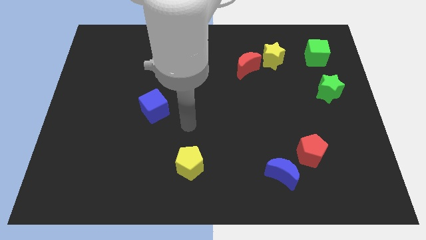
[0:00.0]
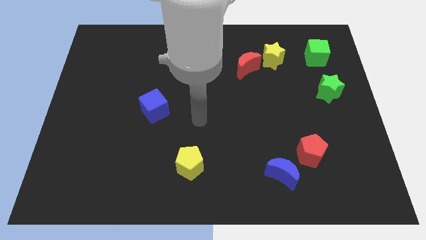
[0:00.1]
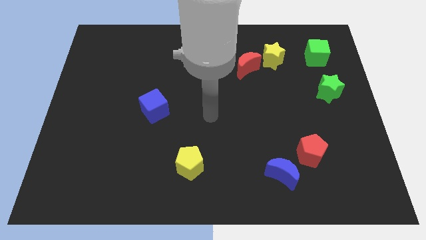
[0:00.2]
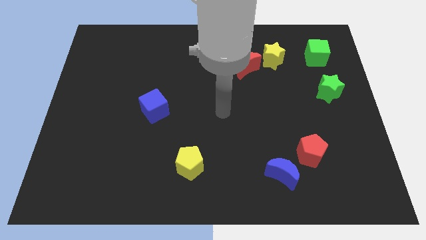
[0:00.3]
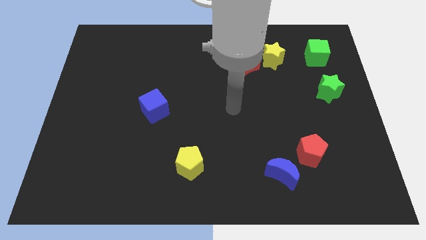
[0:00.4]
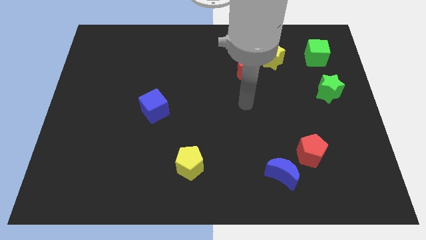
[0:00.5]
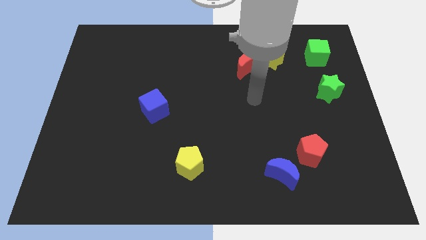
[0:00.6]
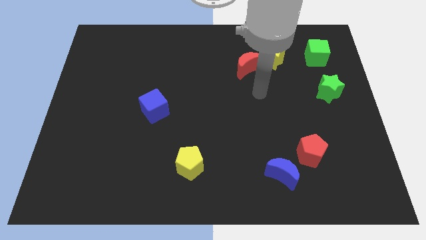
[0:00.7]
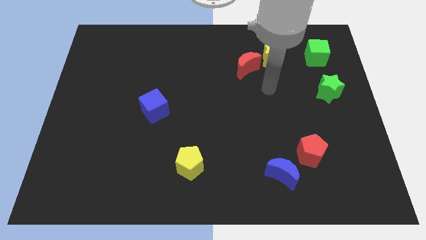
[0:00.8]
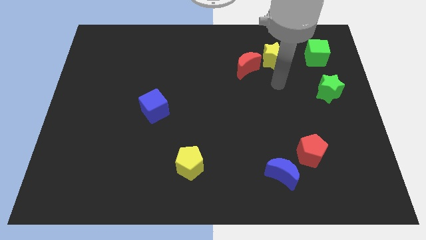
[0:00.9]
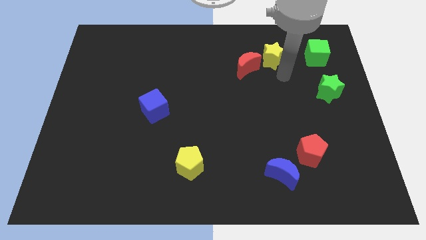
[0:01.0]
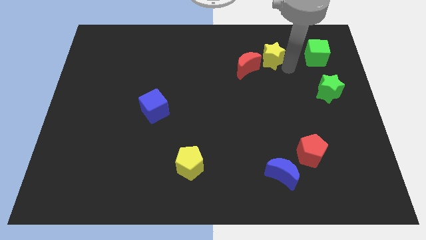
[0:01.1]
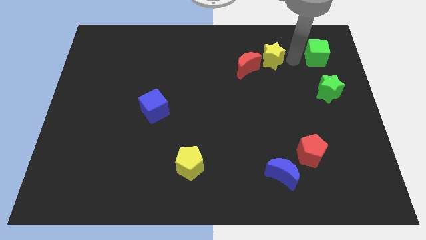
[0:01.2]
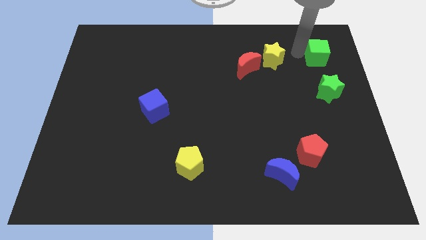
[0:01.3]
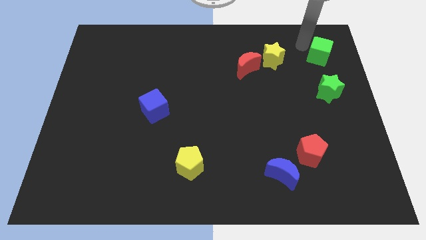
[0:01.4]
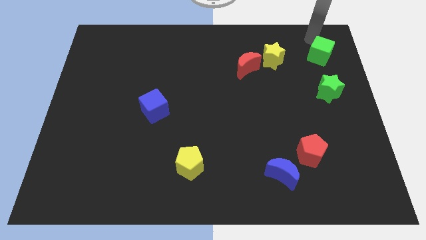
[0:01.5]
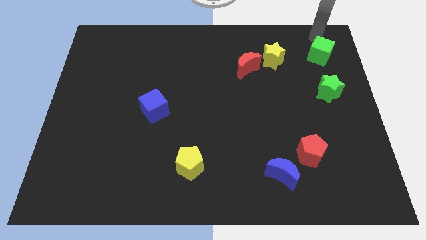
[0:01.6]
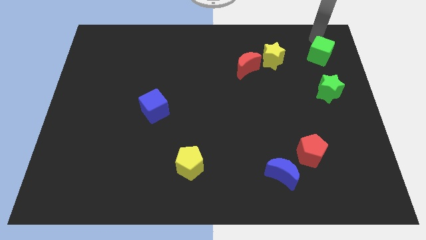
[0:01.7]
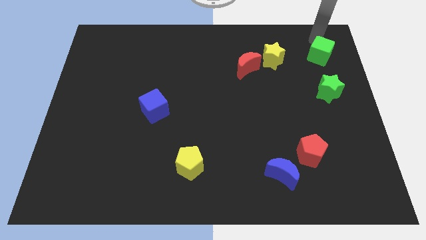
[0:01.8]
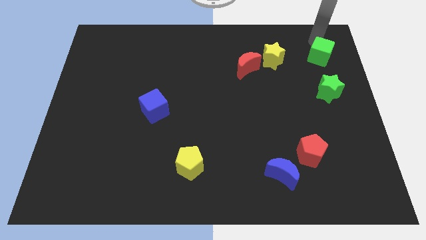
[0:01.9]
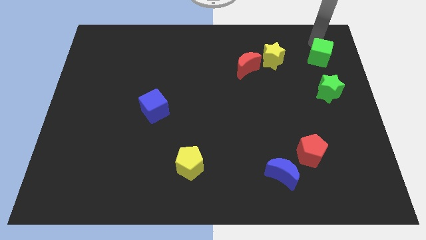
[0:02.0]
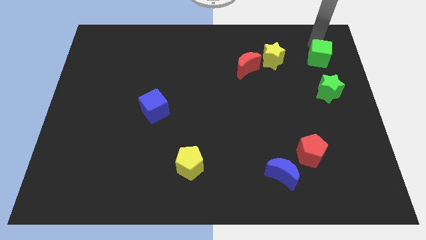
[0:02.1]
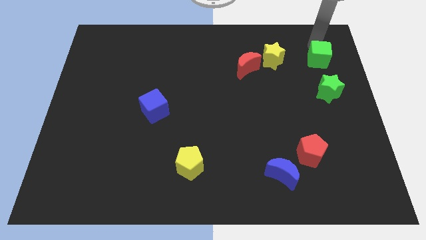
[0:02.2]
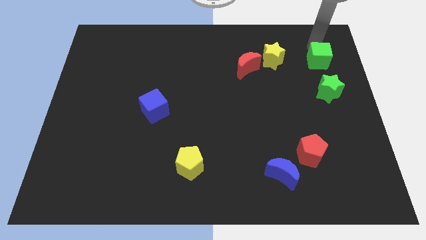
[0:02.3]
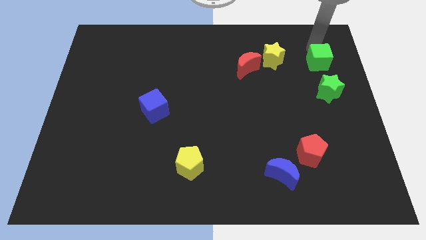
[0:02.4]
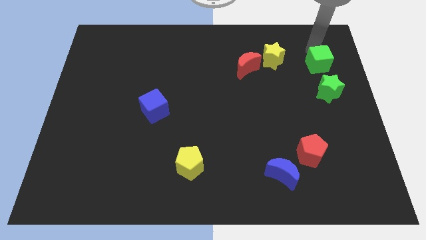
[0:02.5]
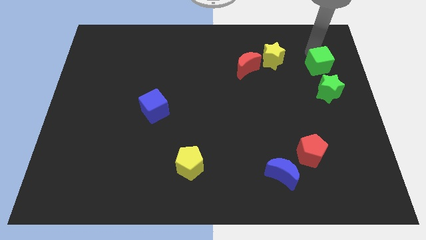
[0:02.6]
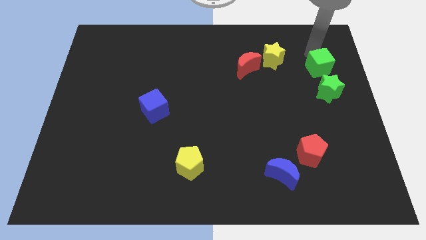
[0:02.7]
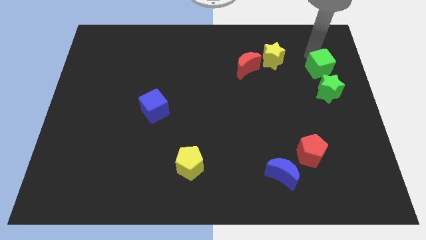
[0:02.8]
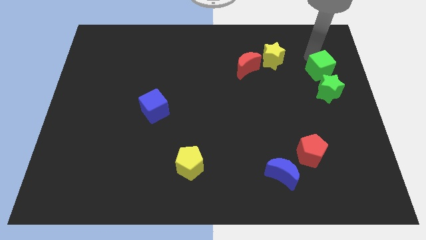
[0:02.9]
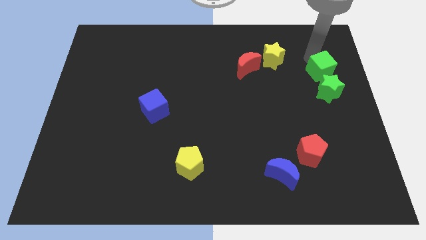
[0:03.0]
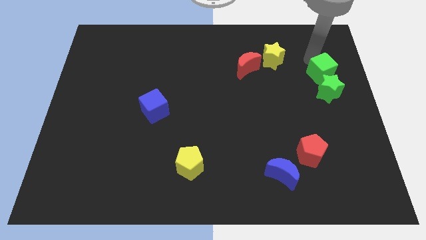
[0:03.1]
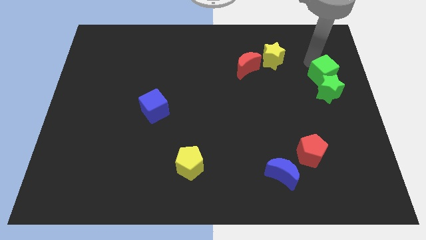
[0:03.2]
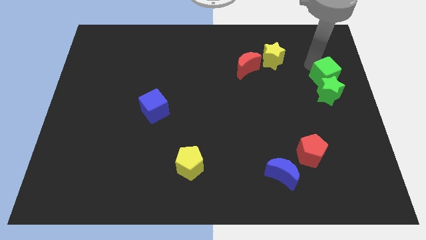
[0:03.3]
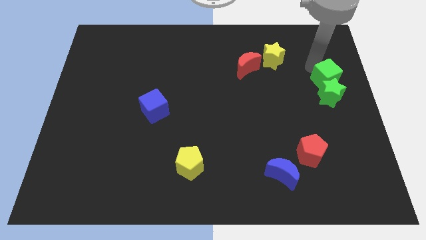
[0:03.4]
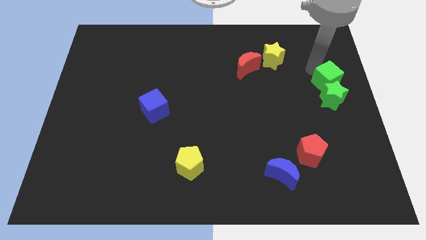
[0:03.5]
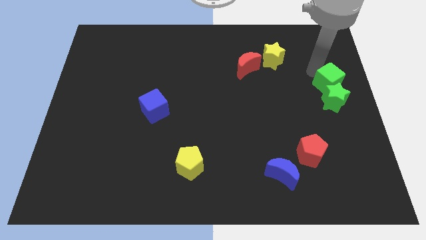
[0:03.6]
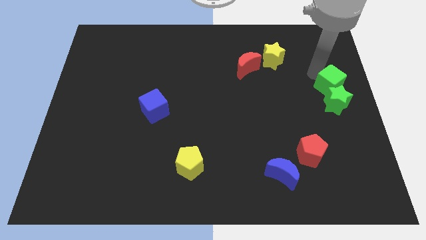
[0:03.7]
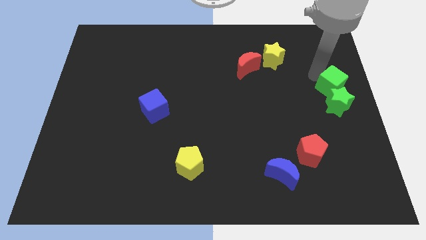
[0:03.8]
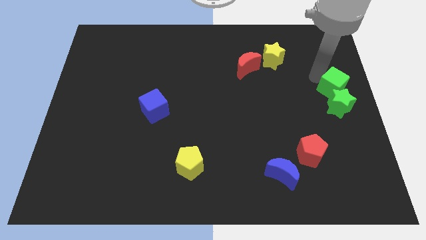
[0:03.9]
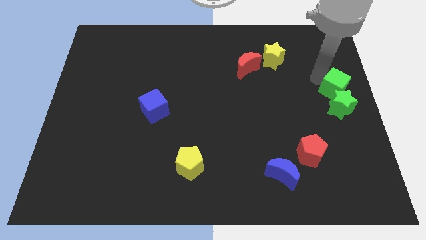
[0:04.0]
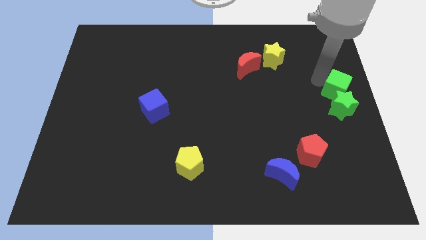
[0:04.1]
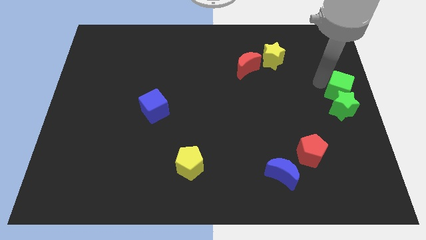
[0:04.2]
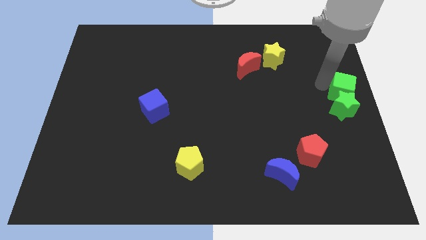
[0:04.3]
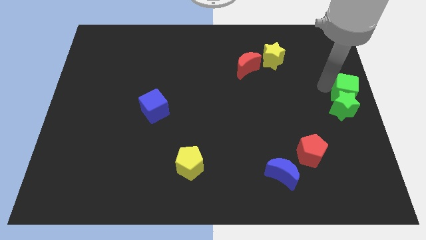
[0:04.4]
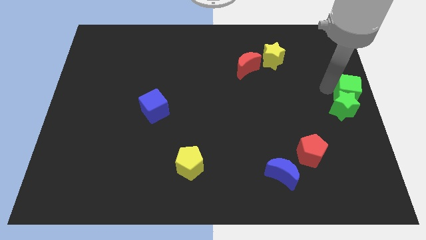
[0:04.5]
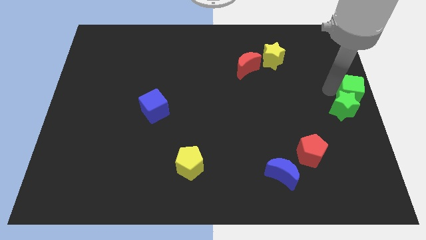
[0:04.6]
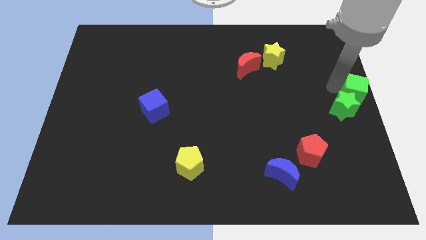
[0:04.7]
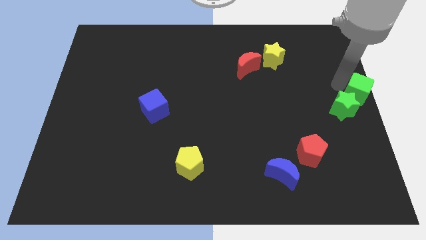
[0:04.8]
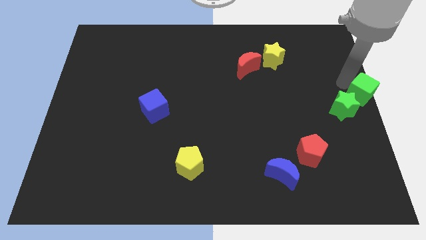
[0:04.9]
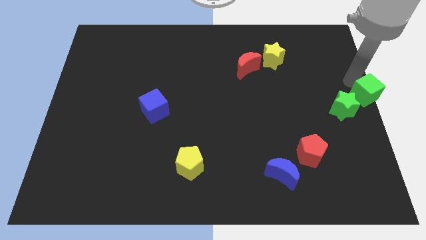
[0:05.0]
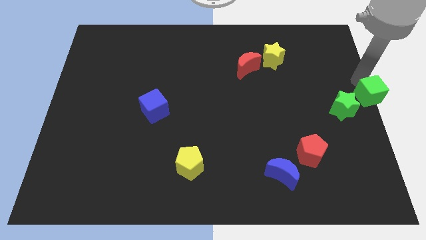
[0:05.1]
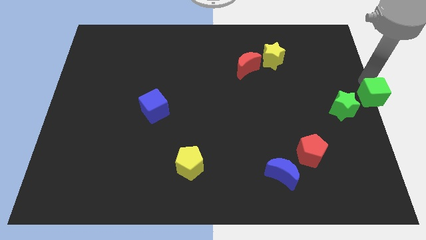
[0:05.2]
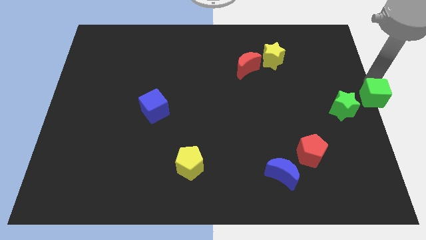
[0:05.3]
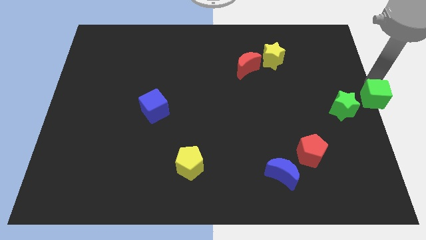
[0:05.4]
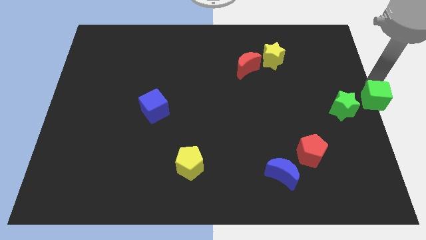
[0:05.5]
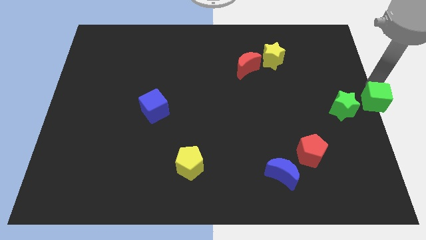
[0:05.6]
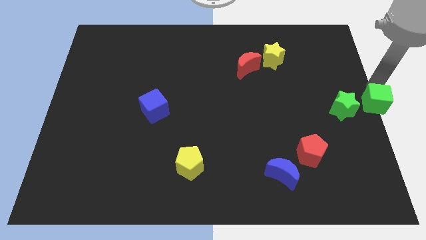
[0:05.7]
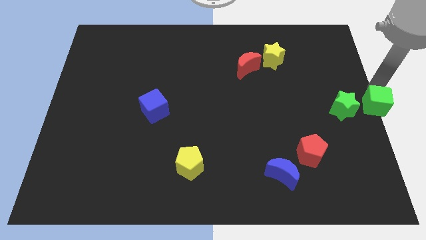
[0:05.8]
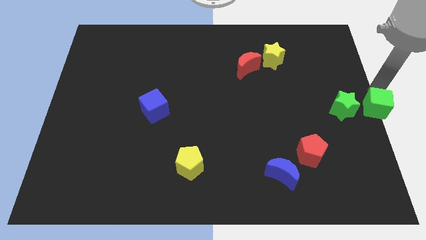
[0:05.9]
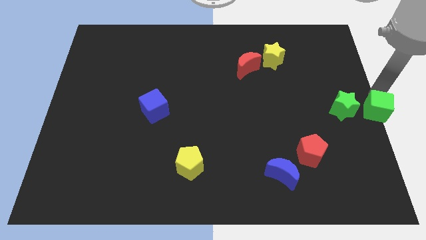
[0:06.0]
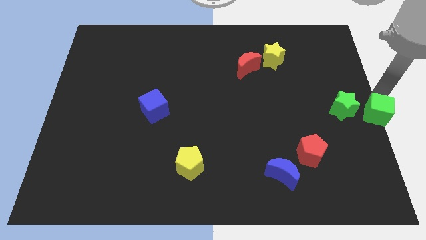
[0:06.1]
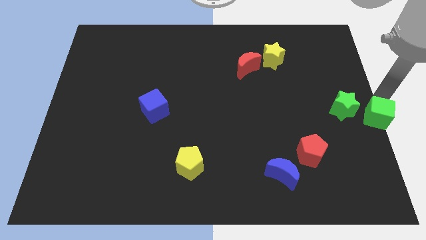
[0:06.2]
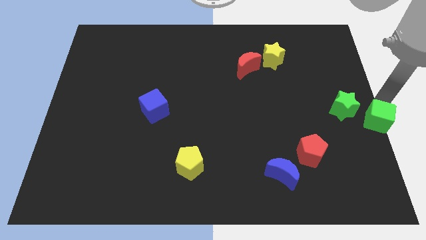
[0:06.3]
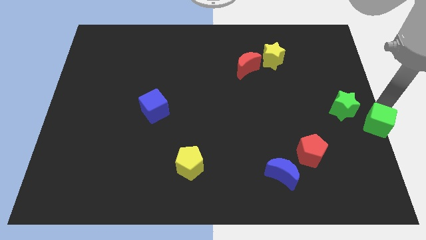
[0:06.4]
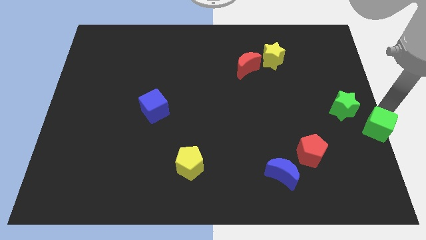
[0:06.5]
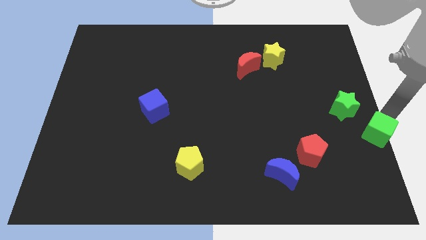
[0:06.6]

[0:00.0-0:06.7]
slide the green cube down

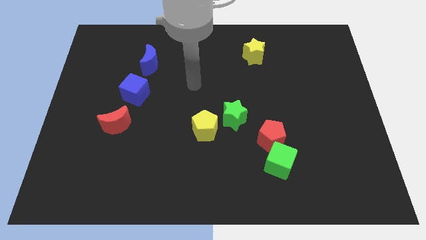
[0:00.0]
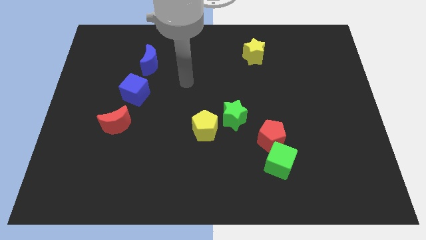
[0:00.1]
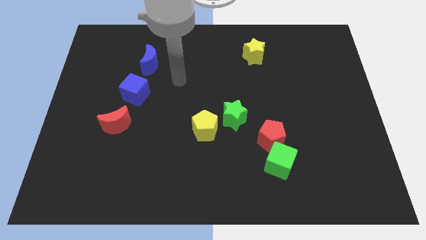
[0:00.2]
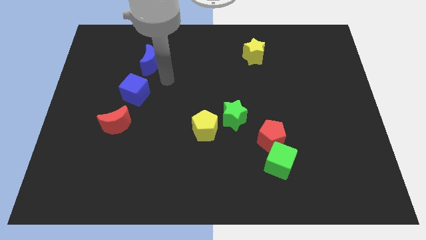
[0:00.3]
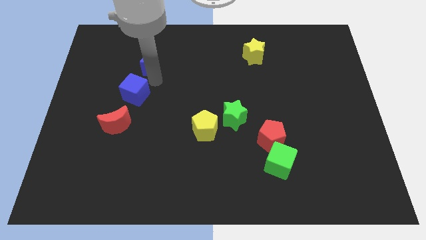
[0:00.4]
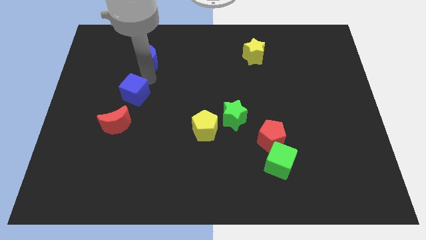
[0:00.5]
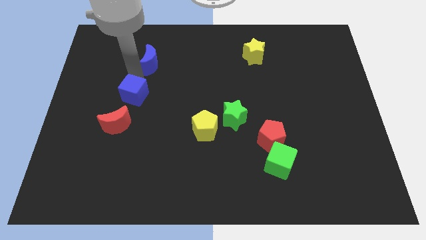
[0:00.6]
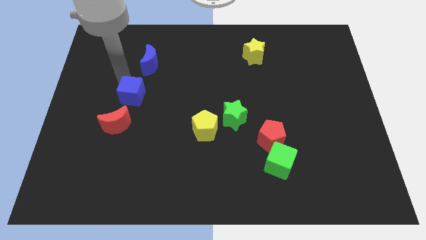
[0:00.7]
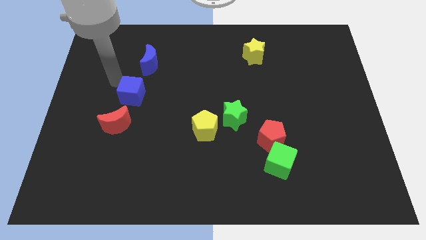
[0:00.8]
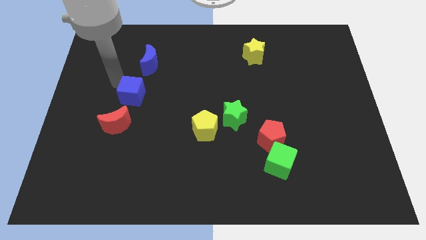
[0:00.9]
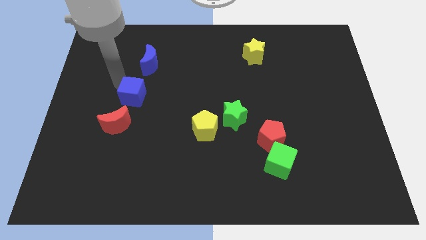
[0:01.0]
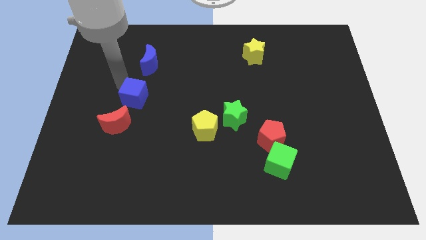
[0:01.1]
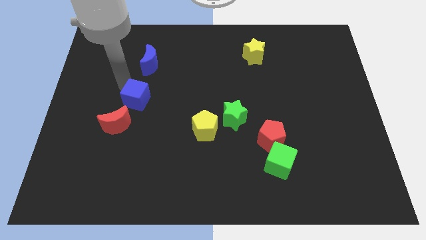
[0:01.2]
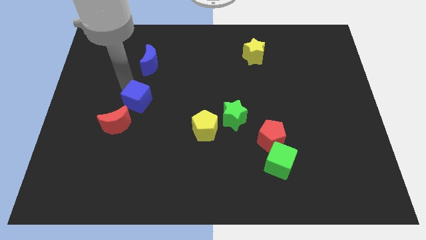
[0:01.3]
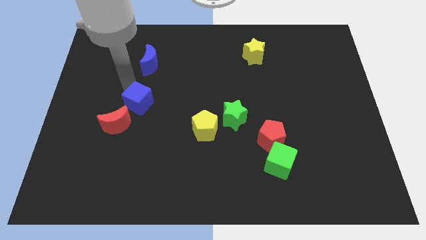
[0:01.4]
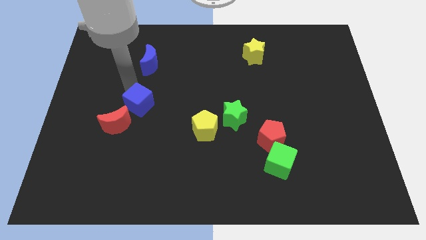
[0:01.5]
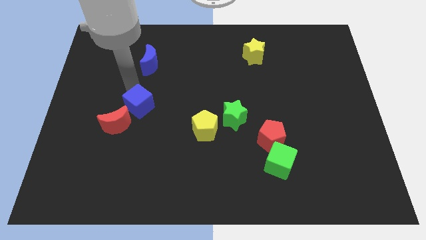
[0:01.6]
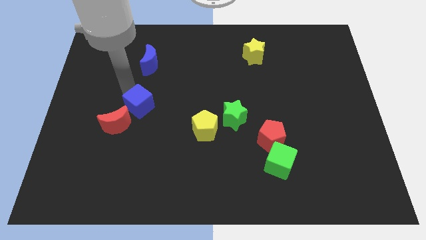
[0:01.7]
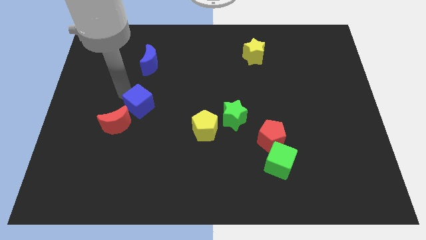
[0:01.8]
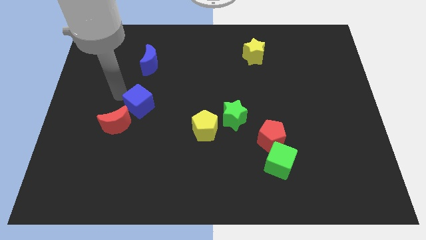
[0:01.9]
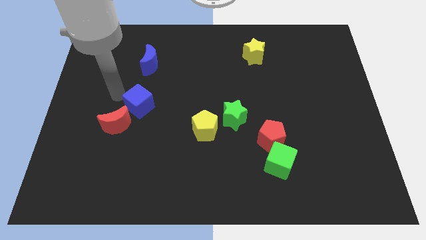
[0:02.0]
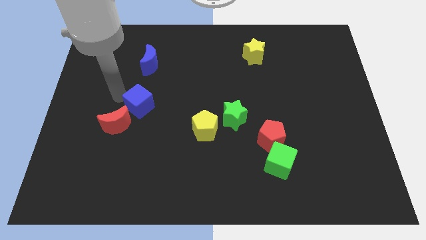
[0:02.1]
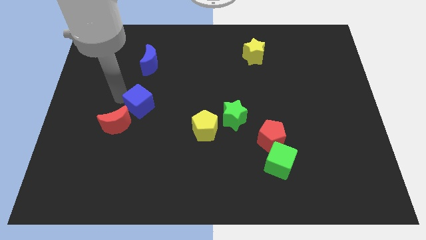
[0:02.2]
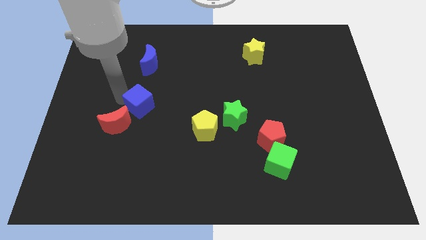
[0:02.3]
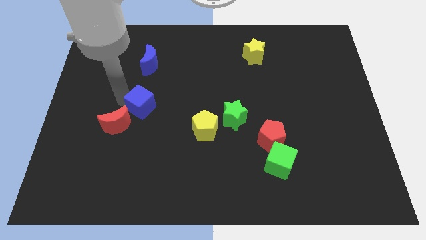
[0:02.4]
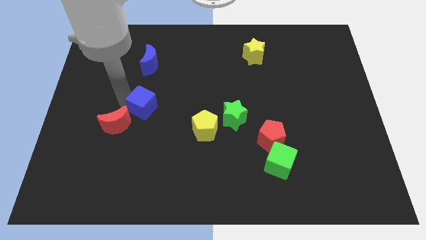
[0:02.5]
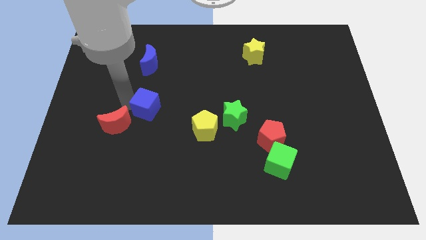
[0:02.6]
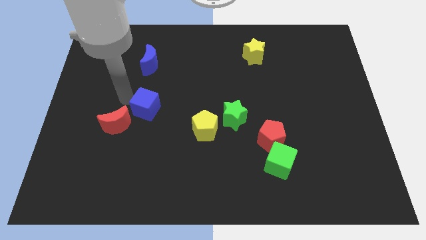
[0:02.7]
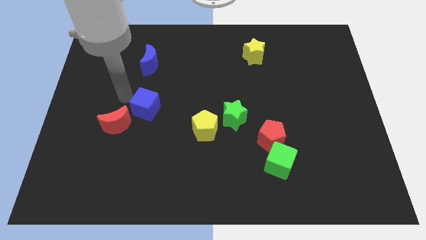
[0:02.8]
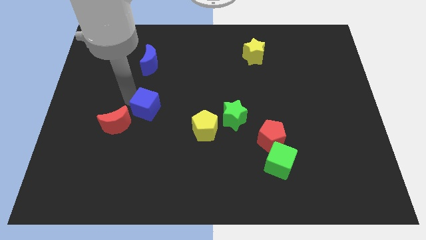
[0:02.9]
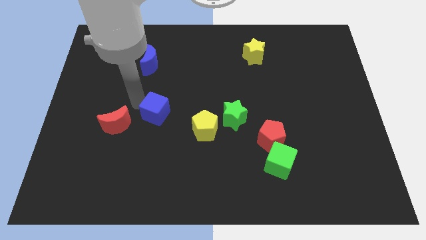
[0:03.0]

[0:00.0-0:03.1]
move the blue cube diagonally downwards and to the right a bit
